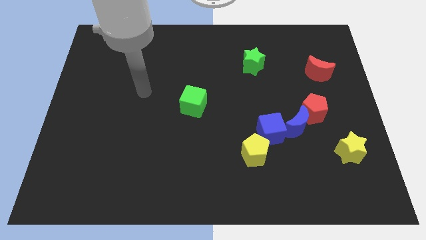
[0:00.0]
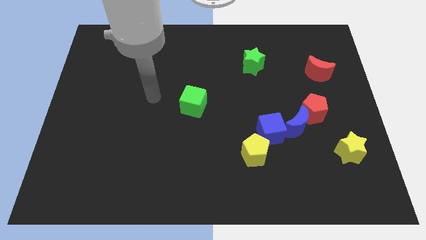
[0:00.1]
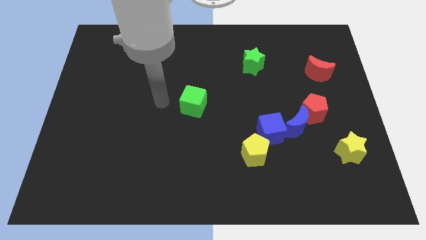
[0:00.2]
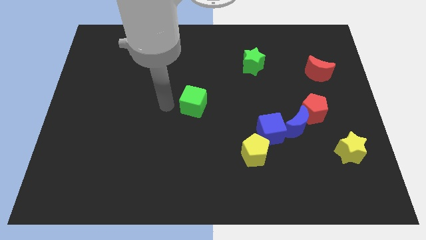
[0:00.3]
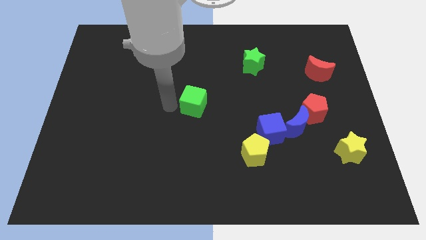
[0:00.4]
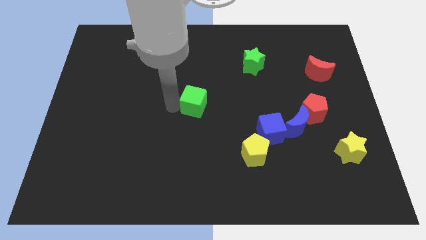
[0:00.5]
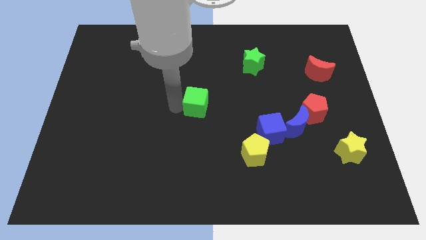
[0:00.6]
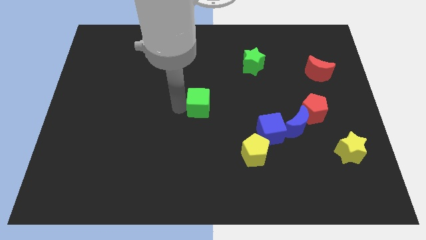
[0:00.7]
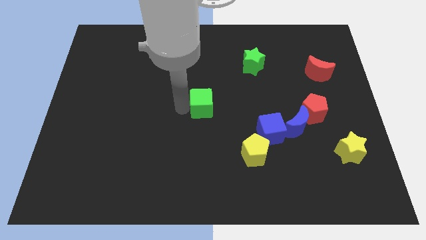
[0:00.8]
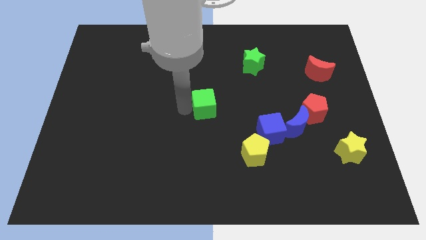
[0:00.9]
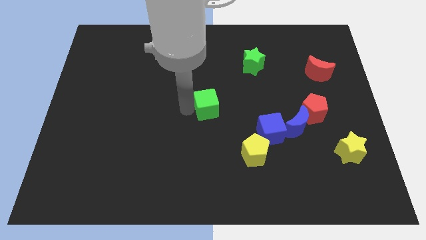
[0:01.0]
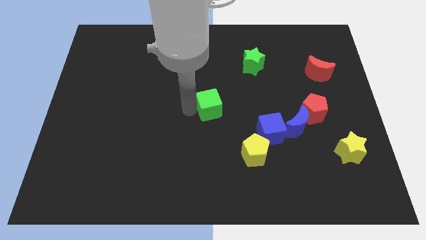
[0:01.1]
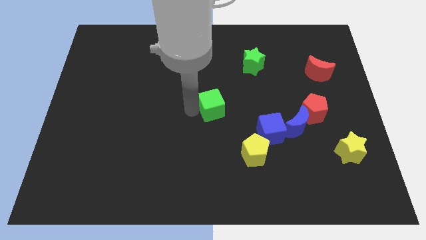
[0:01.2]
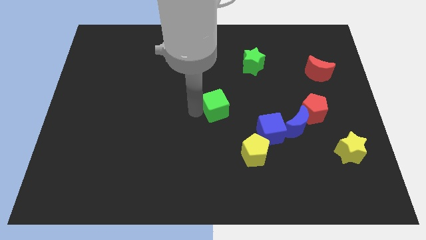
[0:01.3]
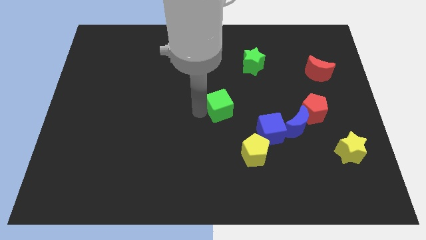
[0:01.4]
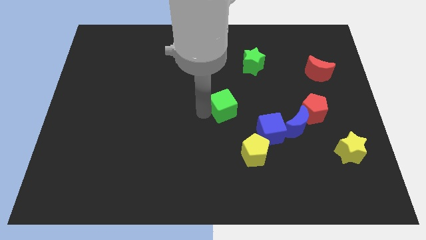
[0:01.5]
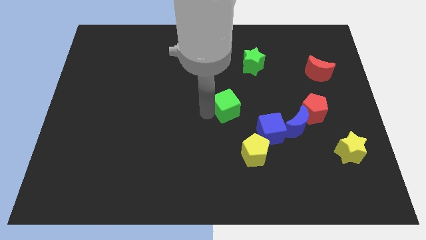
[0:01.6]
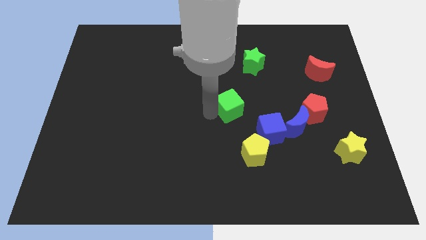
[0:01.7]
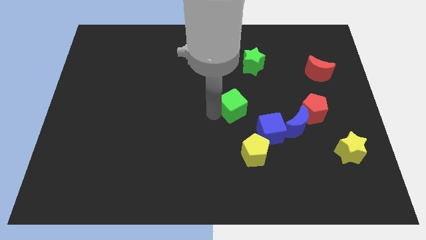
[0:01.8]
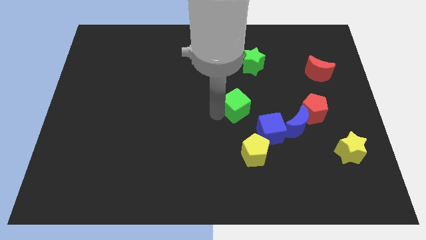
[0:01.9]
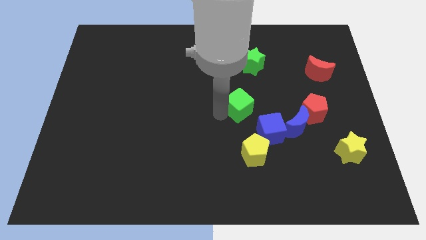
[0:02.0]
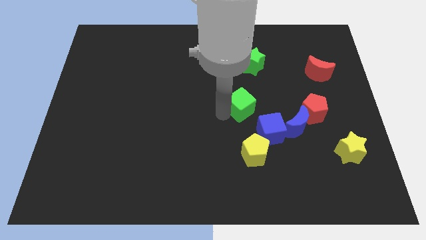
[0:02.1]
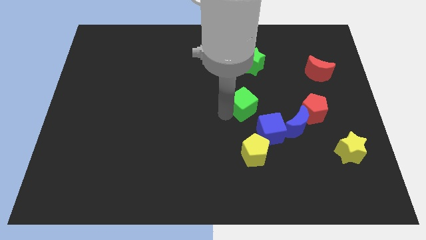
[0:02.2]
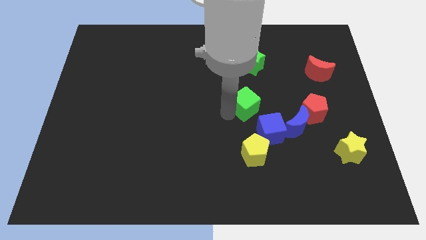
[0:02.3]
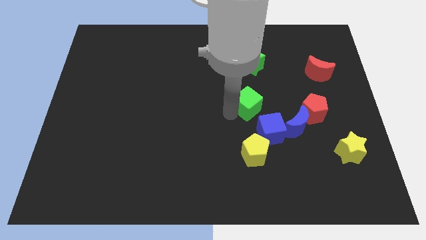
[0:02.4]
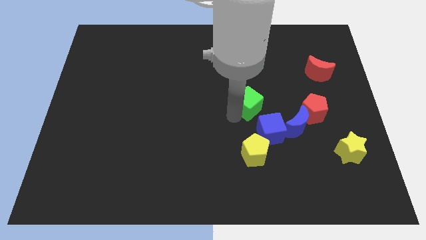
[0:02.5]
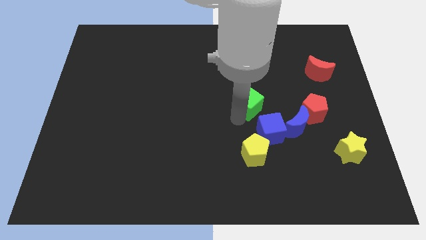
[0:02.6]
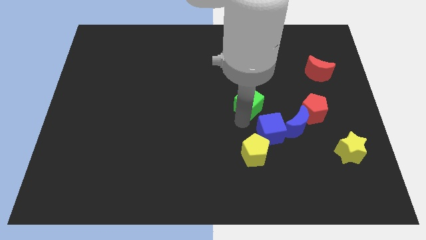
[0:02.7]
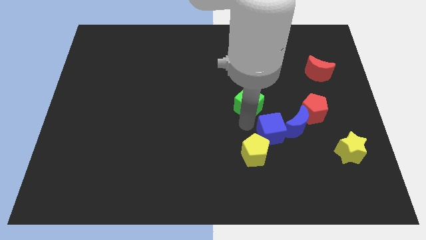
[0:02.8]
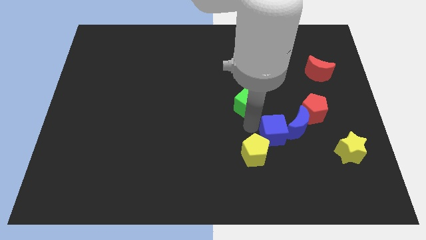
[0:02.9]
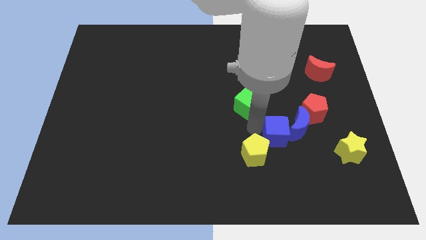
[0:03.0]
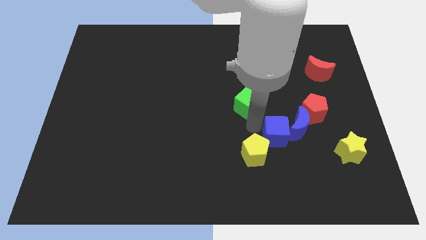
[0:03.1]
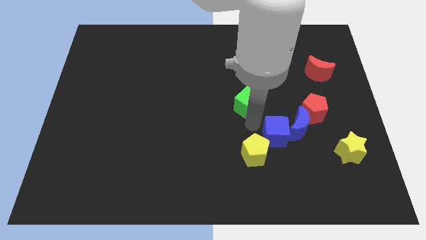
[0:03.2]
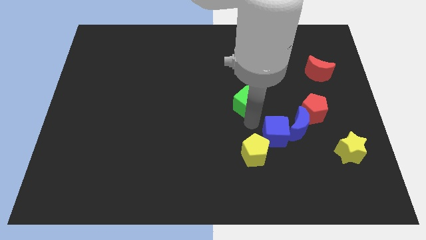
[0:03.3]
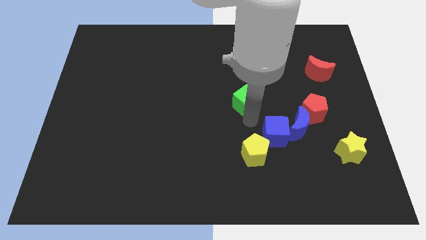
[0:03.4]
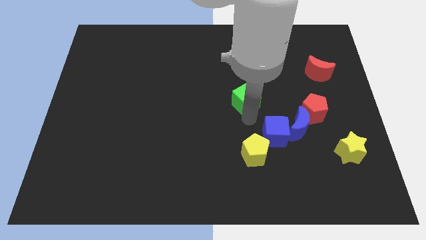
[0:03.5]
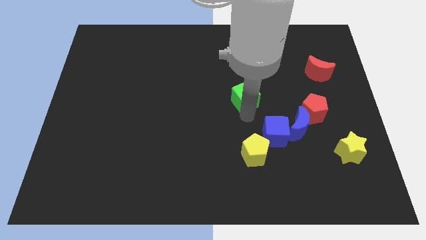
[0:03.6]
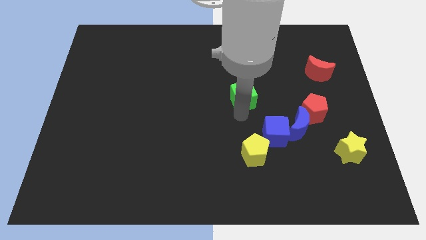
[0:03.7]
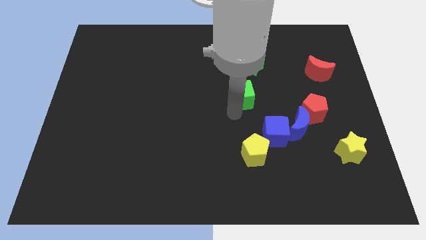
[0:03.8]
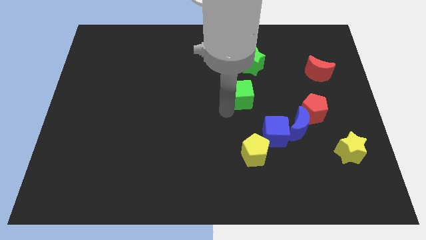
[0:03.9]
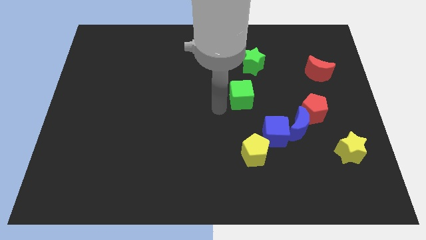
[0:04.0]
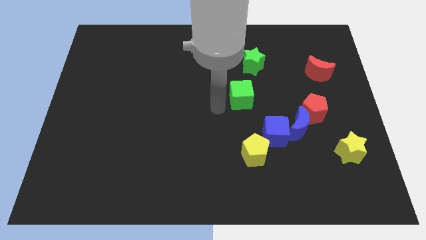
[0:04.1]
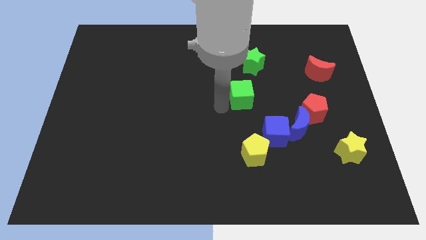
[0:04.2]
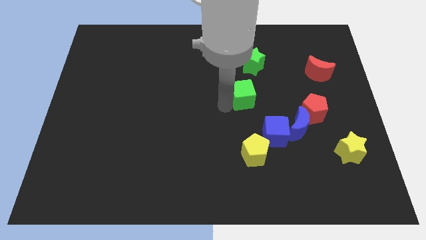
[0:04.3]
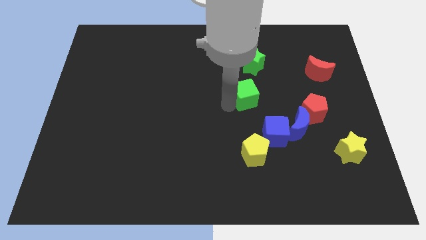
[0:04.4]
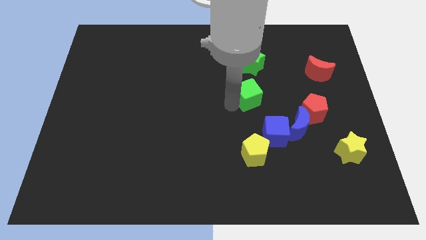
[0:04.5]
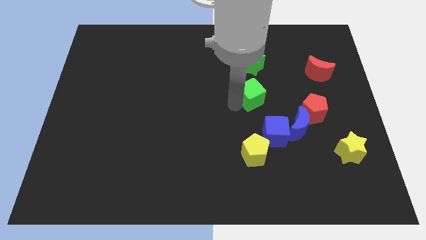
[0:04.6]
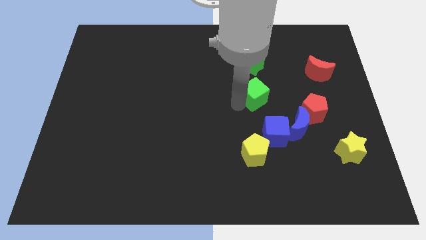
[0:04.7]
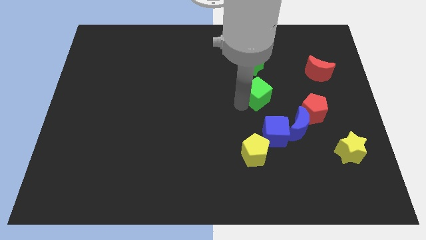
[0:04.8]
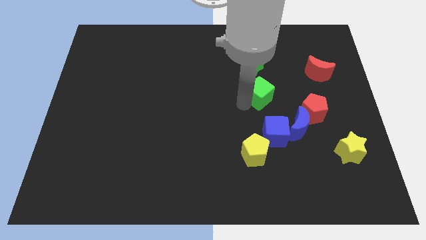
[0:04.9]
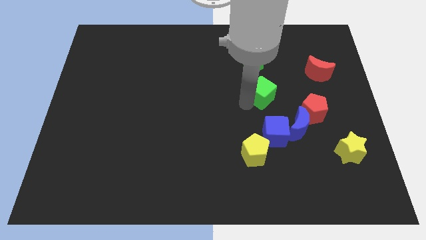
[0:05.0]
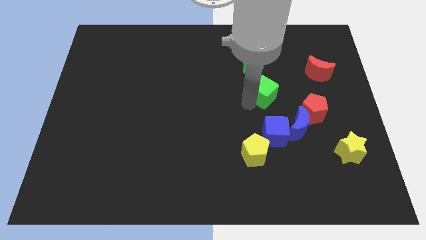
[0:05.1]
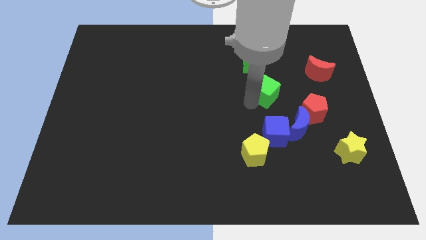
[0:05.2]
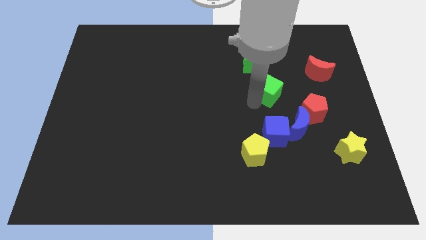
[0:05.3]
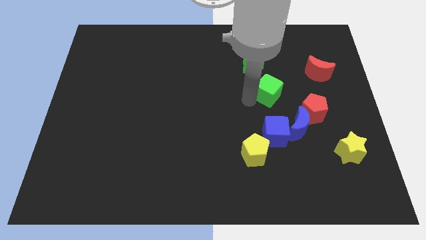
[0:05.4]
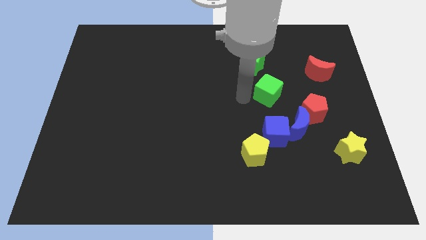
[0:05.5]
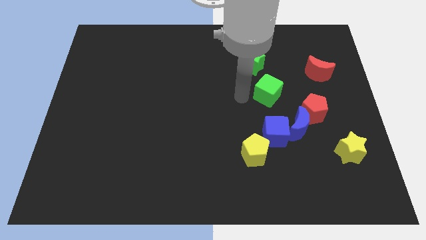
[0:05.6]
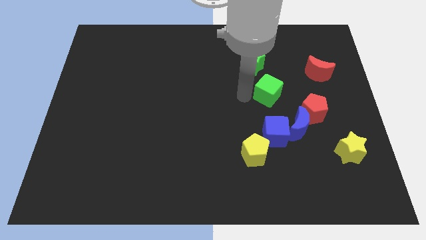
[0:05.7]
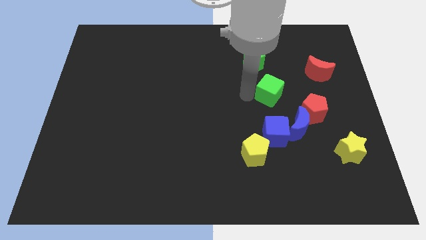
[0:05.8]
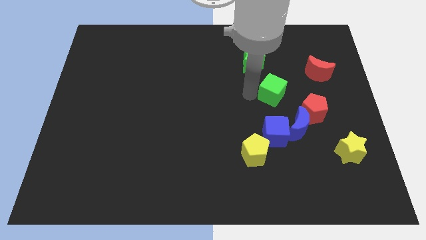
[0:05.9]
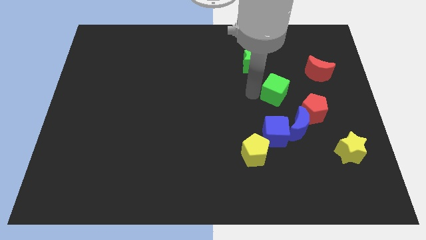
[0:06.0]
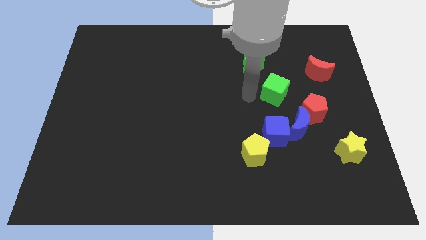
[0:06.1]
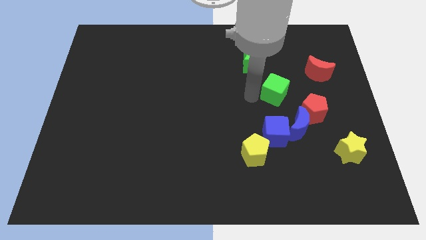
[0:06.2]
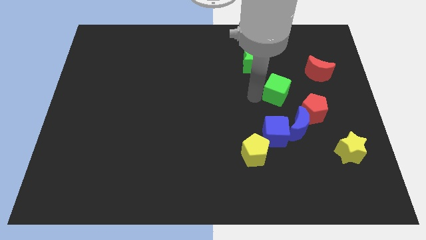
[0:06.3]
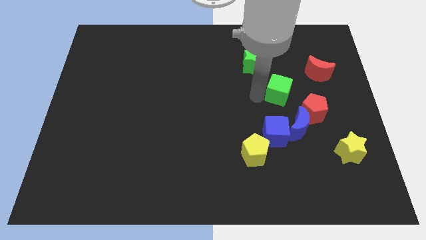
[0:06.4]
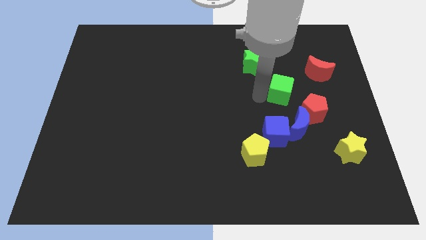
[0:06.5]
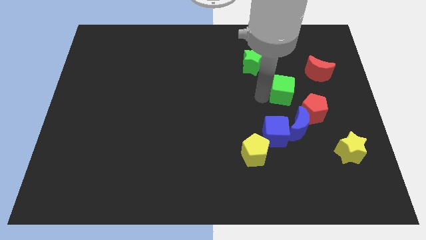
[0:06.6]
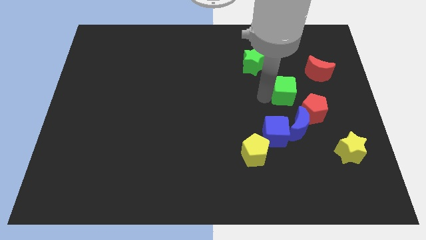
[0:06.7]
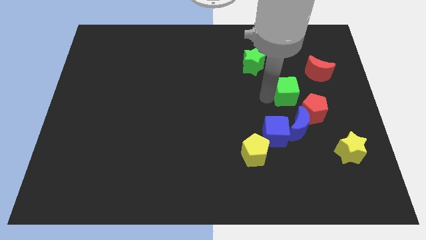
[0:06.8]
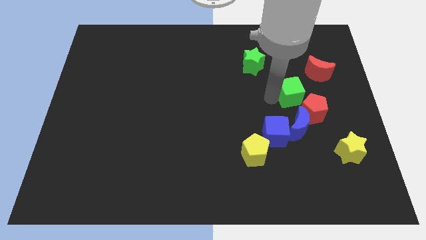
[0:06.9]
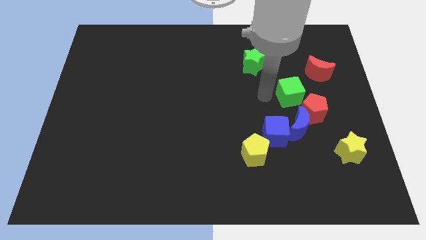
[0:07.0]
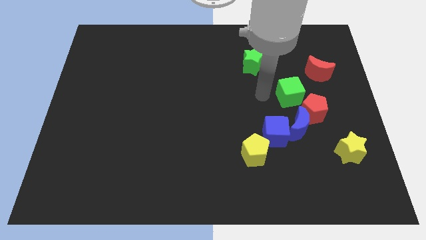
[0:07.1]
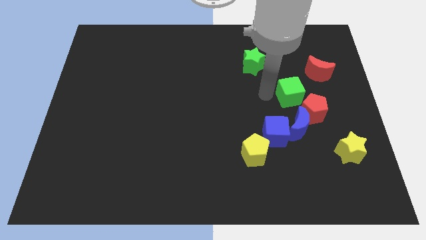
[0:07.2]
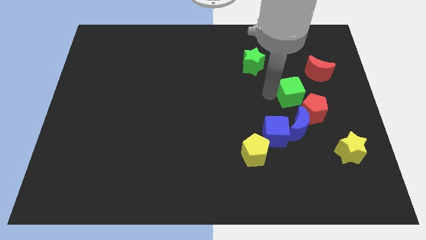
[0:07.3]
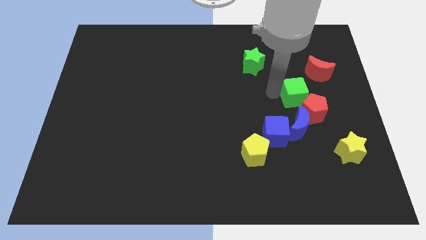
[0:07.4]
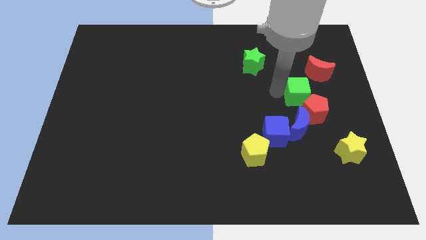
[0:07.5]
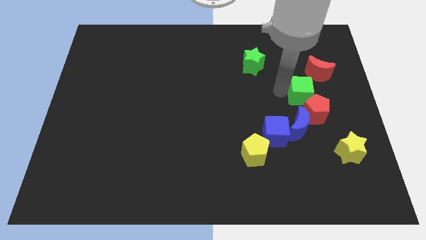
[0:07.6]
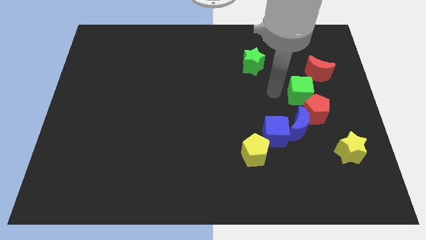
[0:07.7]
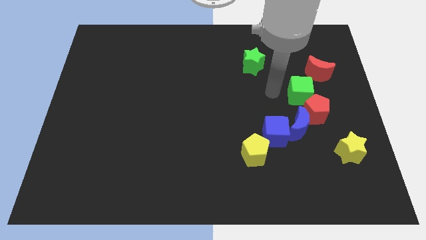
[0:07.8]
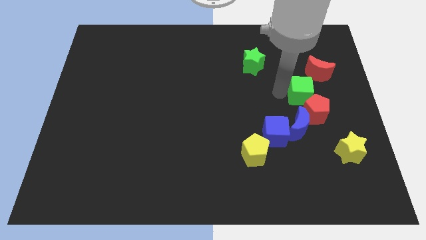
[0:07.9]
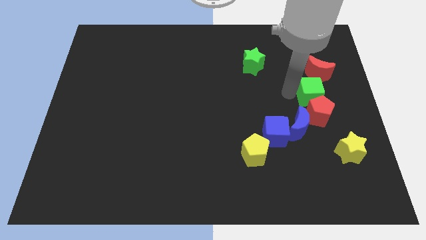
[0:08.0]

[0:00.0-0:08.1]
put the green cube to the top right of the red pentagon
